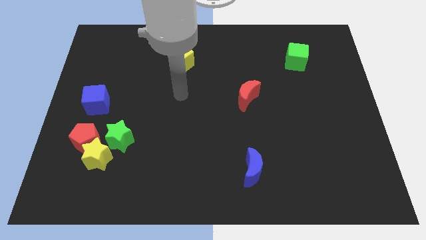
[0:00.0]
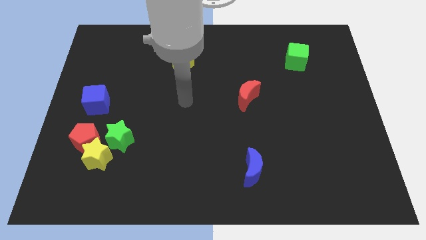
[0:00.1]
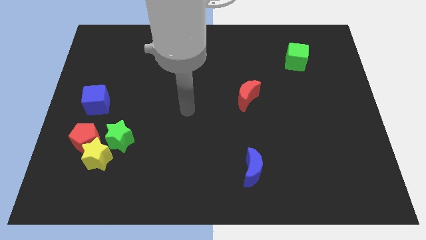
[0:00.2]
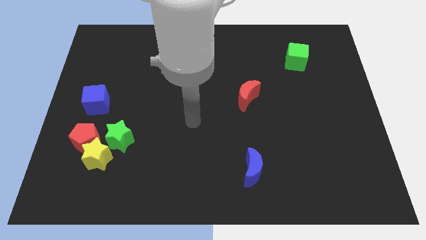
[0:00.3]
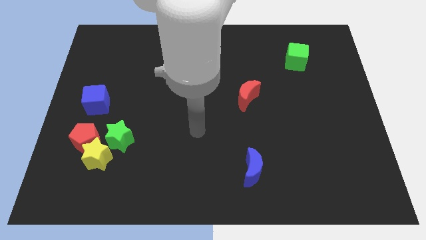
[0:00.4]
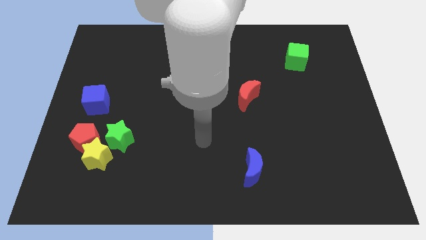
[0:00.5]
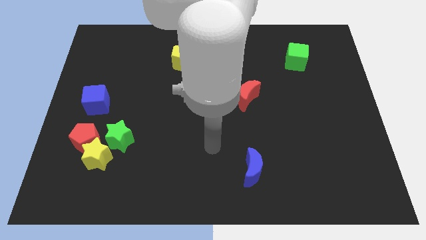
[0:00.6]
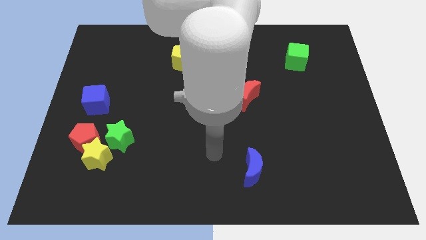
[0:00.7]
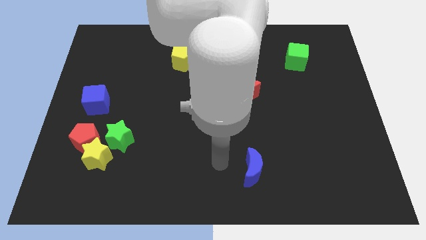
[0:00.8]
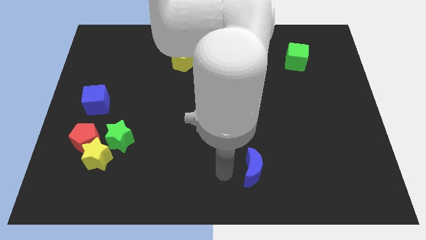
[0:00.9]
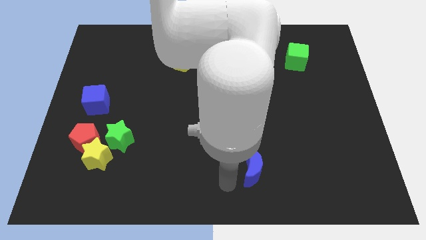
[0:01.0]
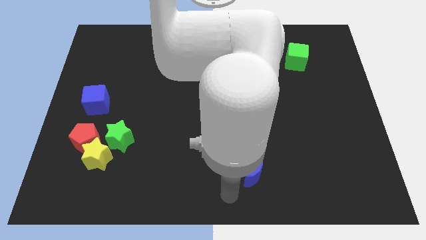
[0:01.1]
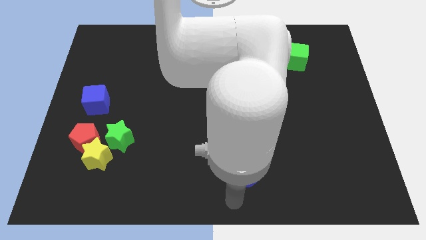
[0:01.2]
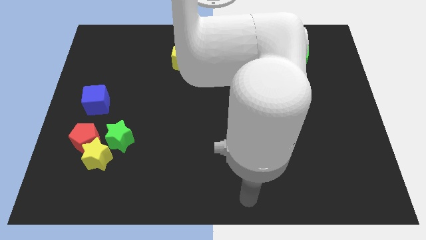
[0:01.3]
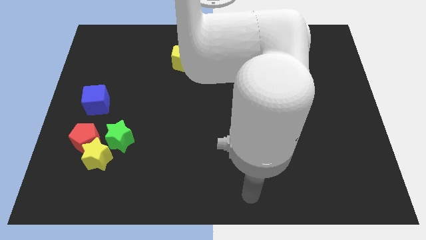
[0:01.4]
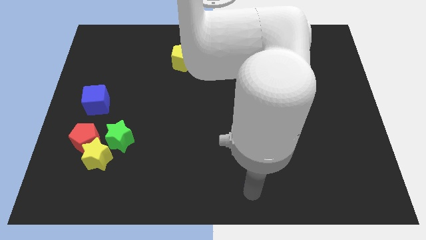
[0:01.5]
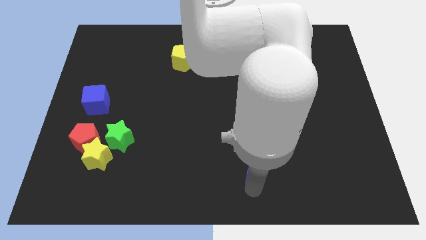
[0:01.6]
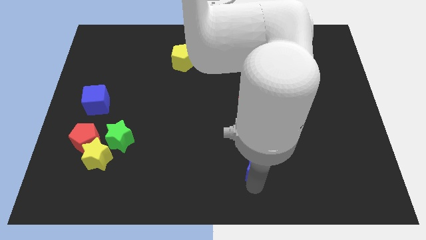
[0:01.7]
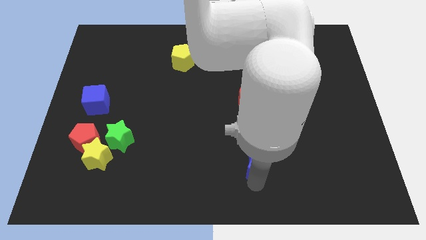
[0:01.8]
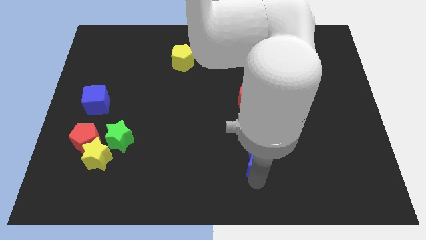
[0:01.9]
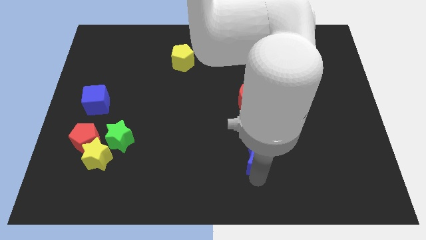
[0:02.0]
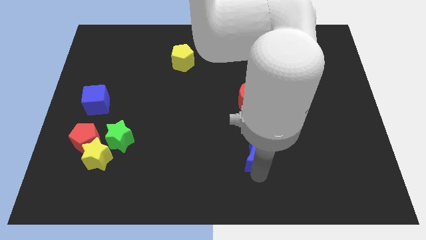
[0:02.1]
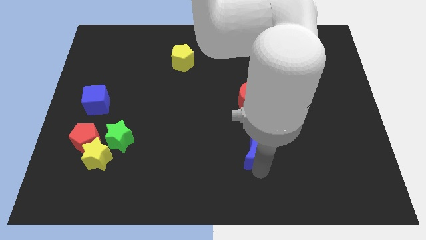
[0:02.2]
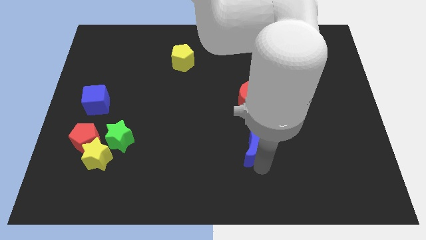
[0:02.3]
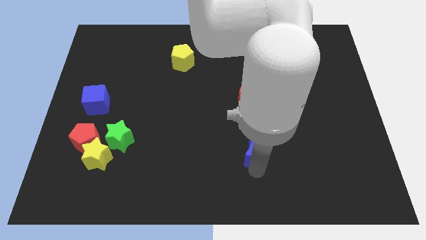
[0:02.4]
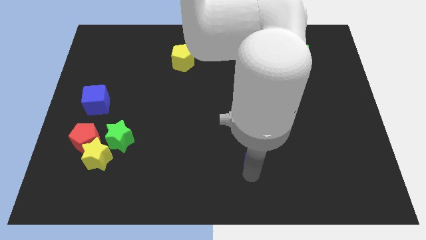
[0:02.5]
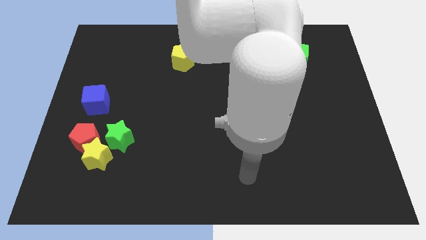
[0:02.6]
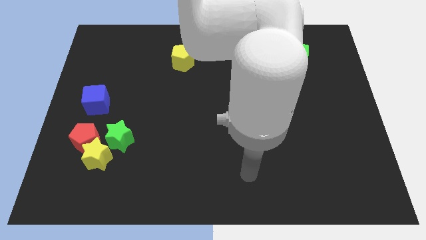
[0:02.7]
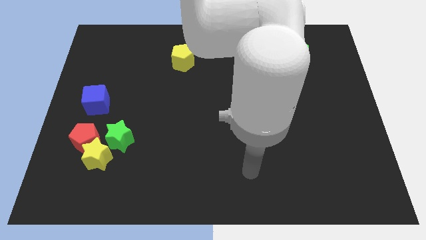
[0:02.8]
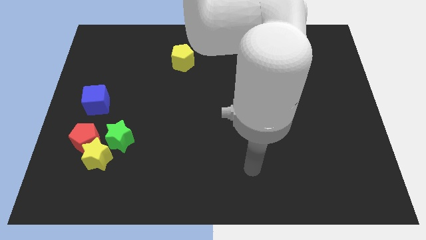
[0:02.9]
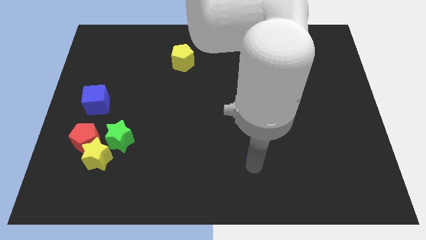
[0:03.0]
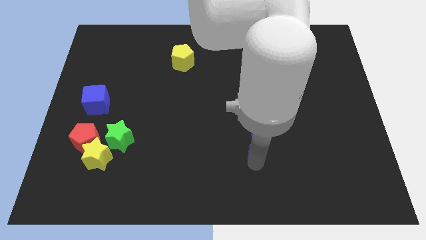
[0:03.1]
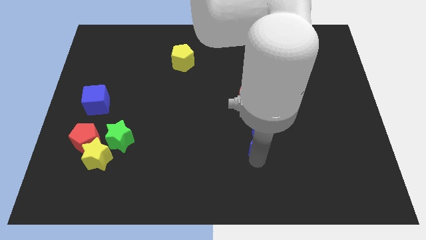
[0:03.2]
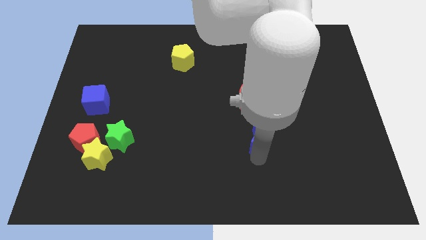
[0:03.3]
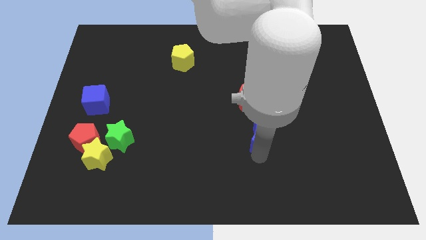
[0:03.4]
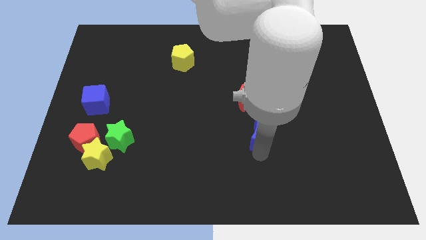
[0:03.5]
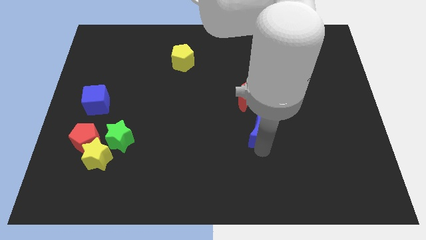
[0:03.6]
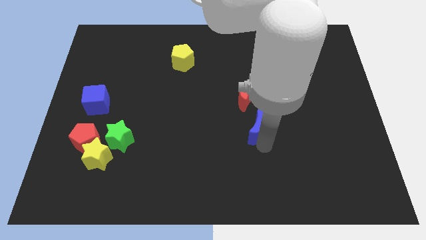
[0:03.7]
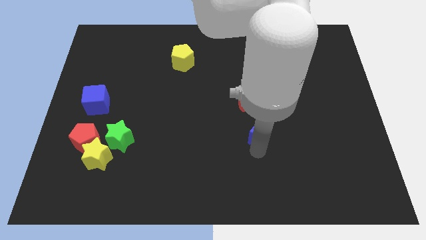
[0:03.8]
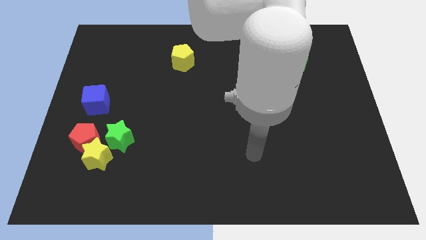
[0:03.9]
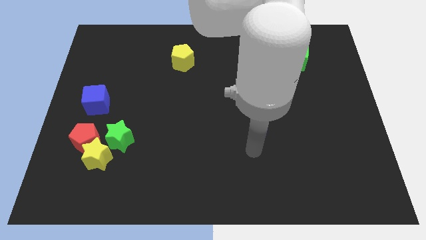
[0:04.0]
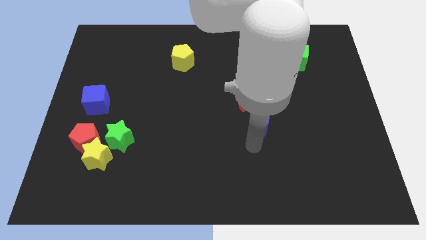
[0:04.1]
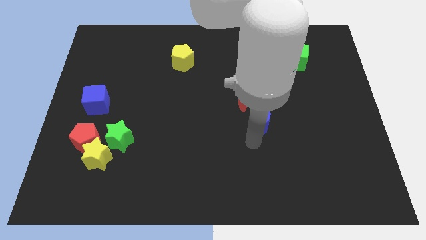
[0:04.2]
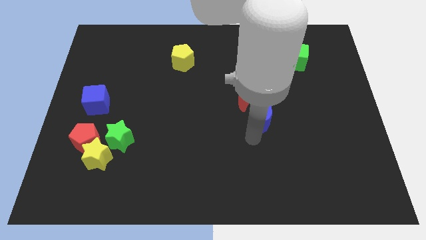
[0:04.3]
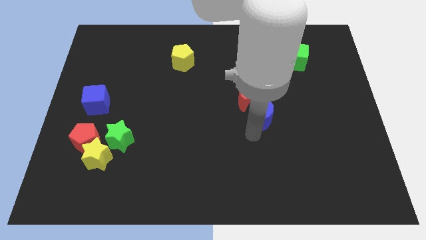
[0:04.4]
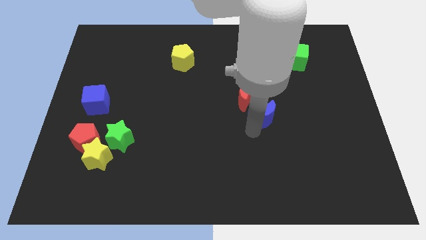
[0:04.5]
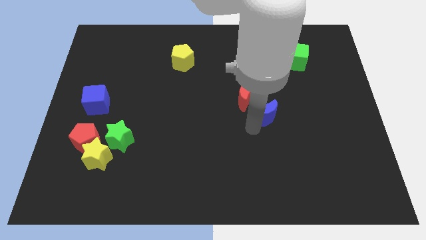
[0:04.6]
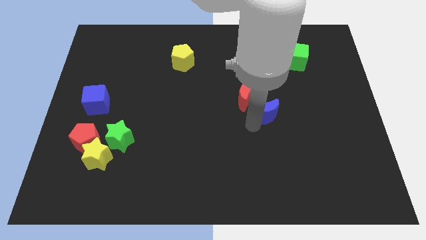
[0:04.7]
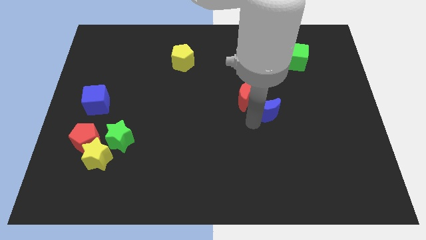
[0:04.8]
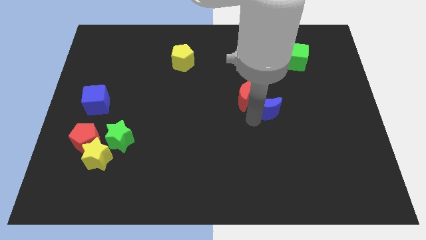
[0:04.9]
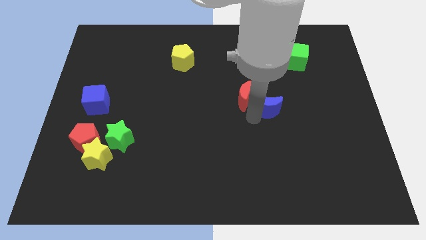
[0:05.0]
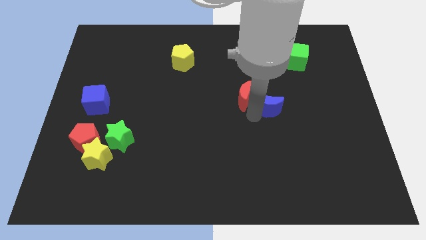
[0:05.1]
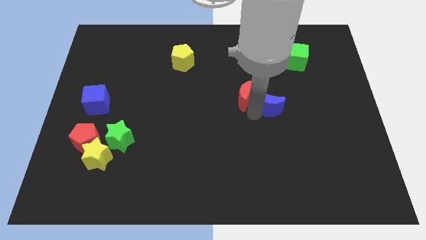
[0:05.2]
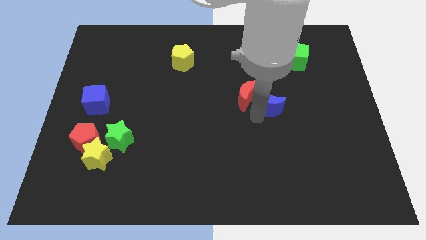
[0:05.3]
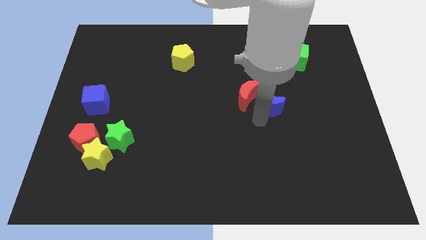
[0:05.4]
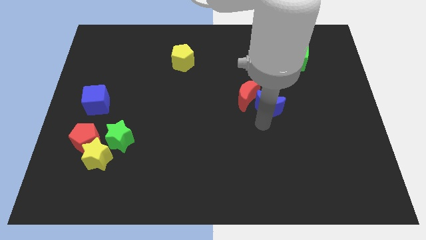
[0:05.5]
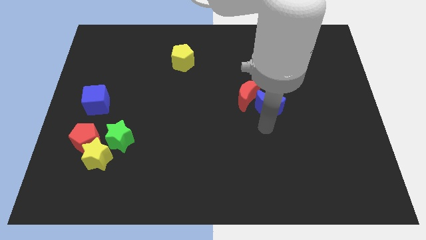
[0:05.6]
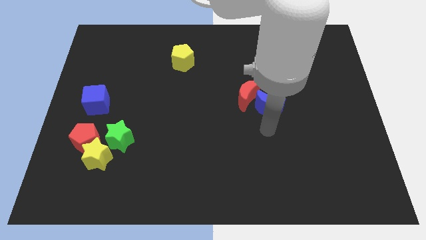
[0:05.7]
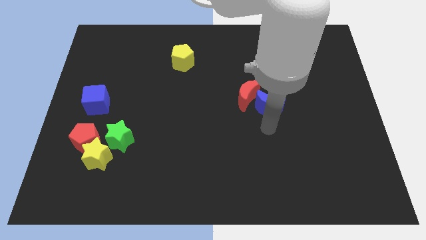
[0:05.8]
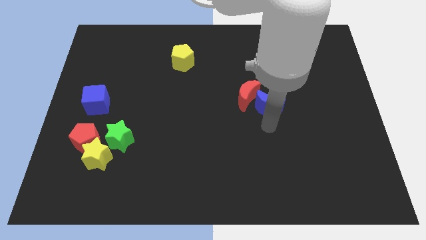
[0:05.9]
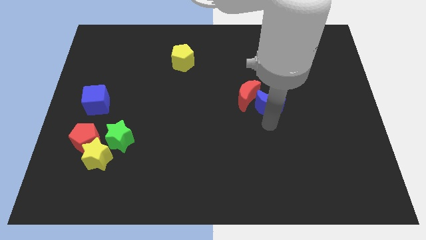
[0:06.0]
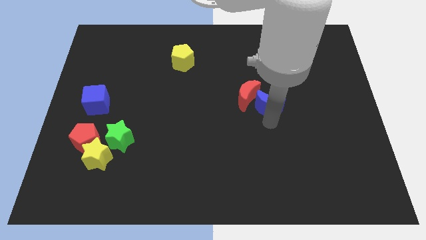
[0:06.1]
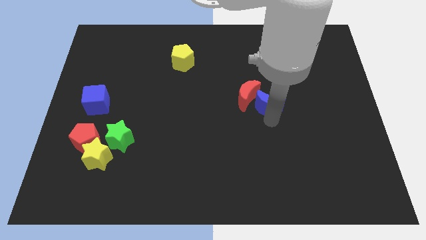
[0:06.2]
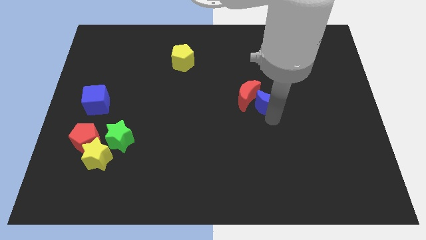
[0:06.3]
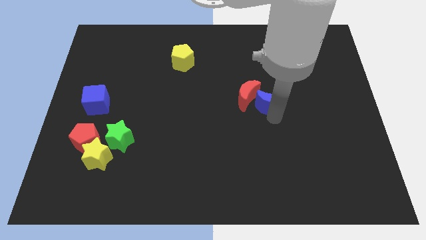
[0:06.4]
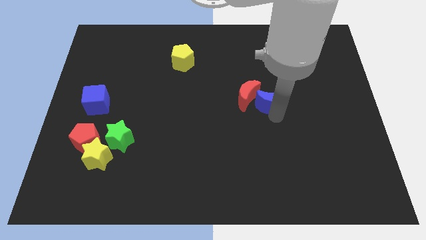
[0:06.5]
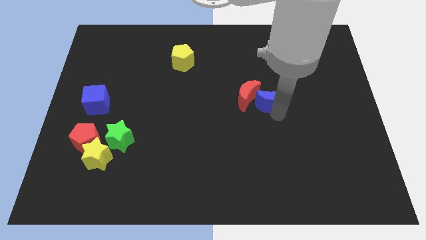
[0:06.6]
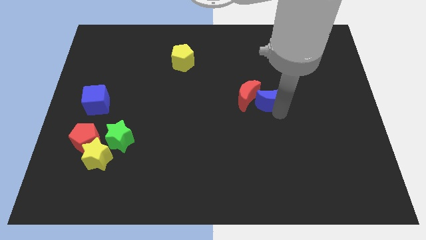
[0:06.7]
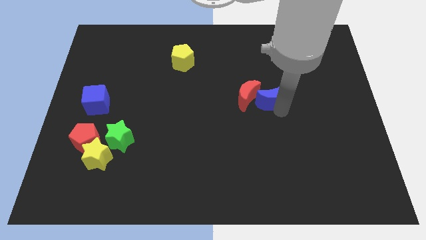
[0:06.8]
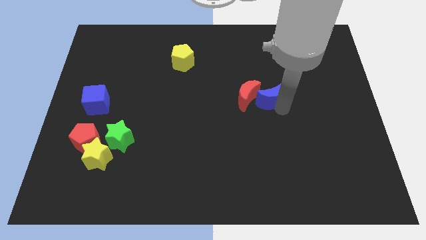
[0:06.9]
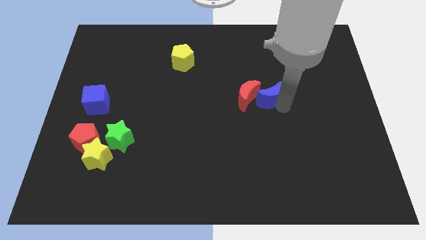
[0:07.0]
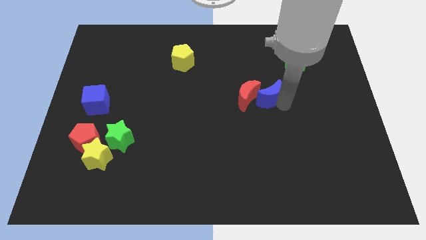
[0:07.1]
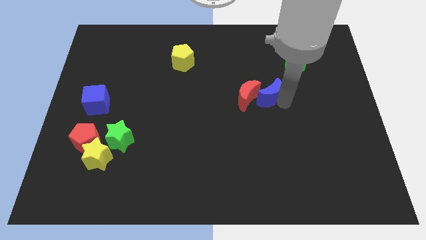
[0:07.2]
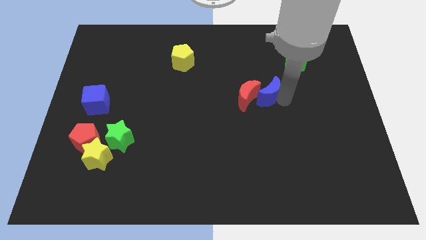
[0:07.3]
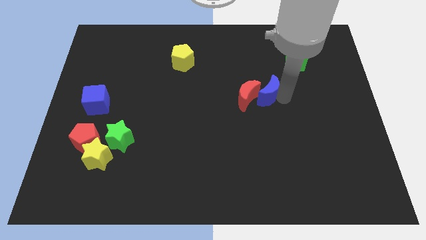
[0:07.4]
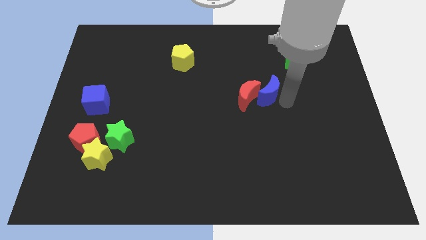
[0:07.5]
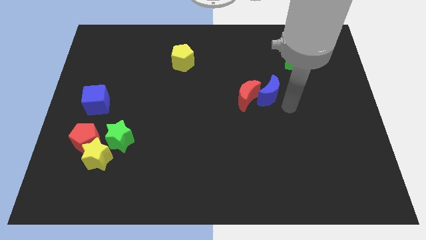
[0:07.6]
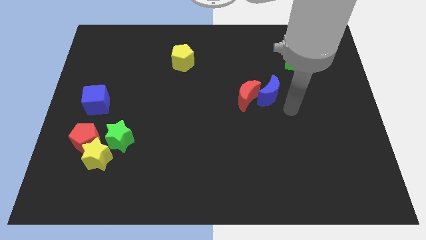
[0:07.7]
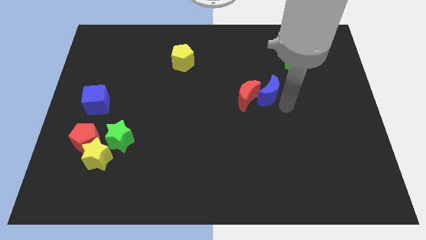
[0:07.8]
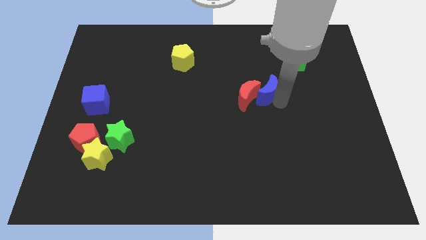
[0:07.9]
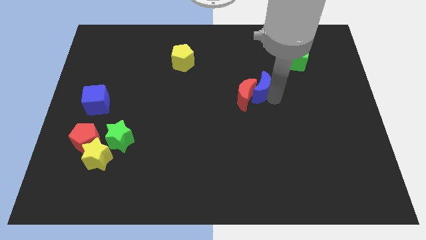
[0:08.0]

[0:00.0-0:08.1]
slide the blue moon upwards

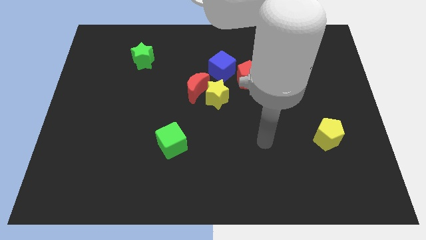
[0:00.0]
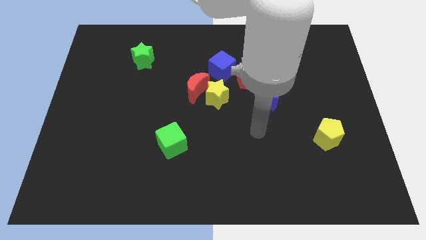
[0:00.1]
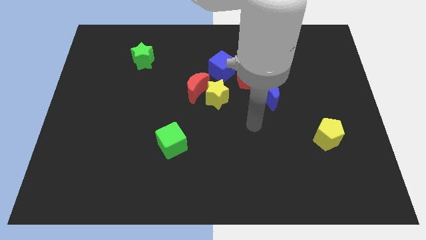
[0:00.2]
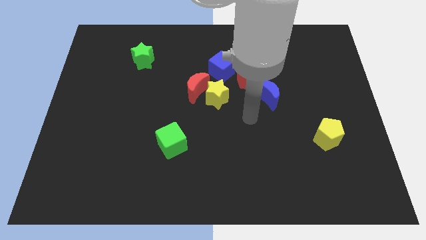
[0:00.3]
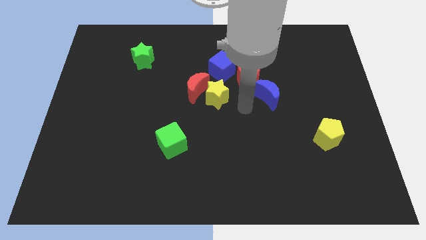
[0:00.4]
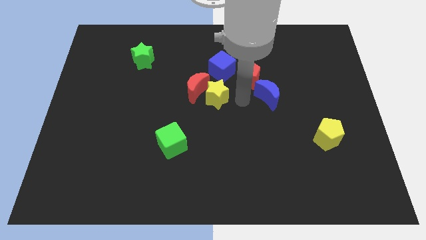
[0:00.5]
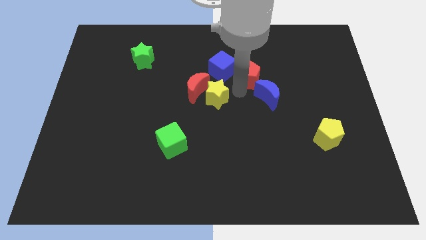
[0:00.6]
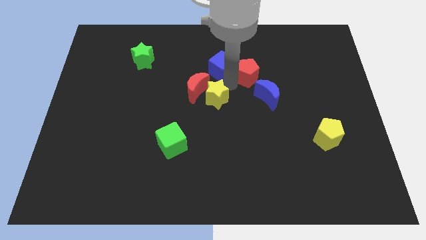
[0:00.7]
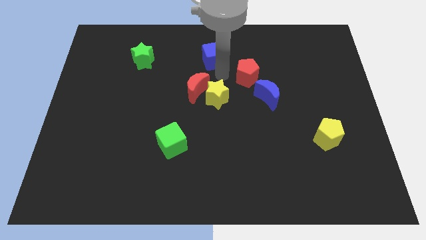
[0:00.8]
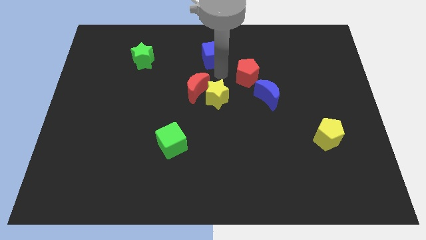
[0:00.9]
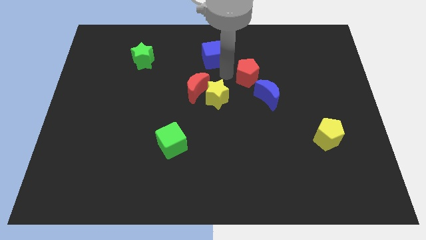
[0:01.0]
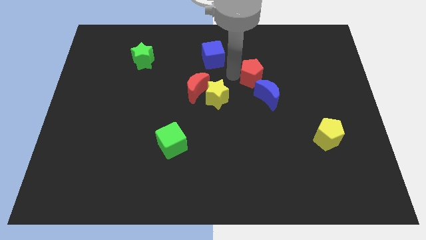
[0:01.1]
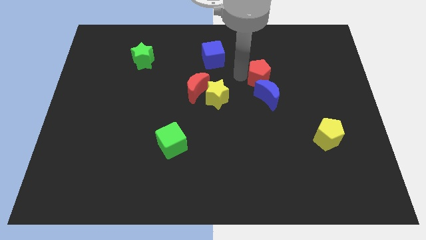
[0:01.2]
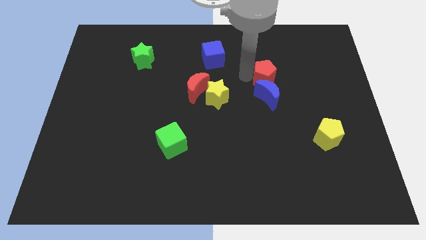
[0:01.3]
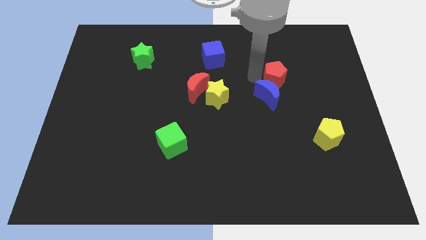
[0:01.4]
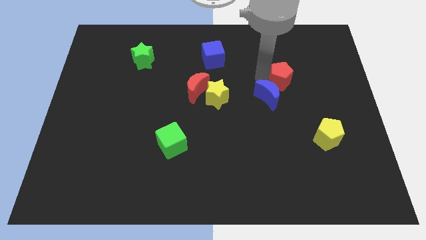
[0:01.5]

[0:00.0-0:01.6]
slide the red pentagon right a little
